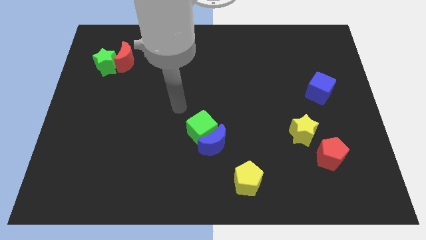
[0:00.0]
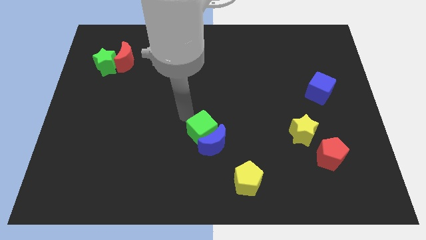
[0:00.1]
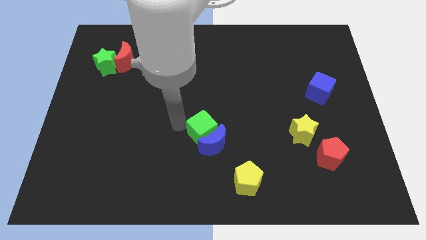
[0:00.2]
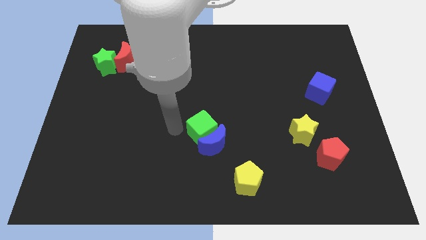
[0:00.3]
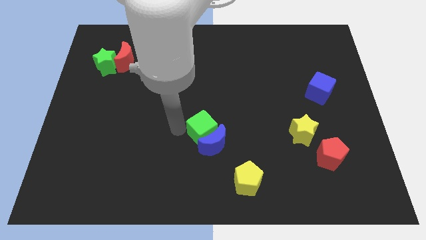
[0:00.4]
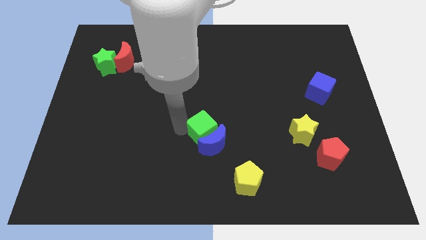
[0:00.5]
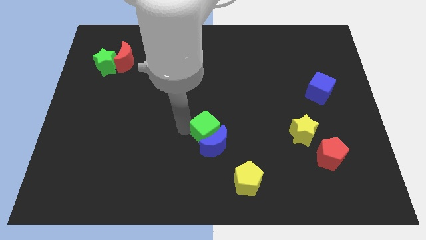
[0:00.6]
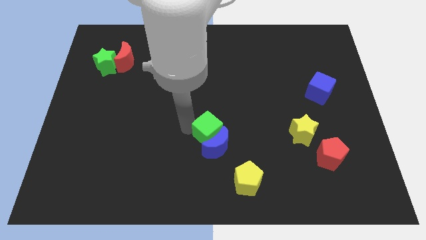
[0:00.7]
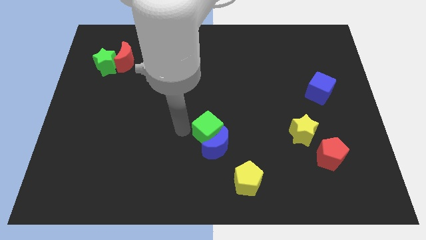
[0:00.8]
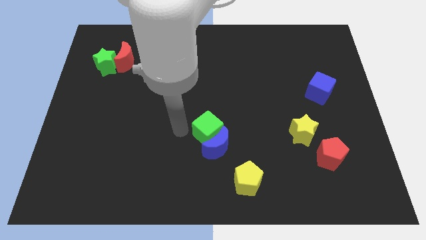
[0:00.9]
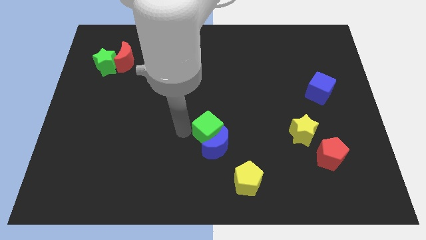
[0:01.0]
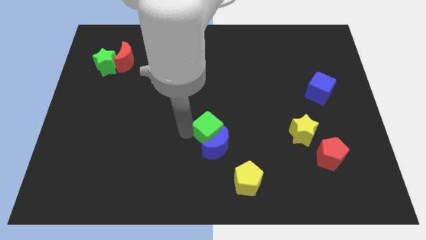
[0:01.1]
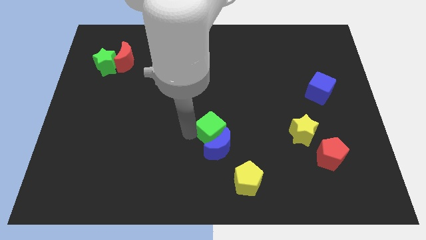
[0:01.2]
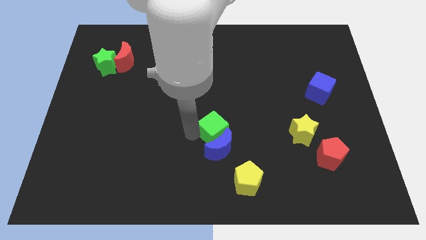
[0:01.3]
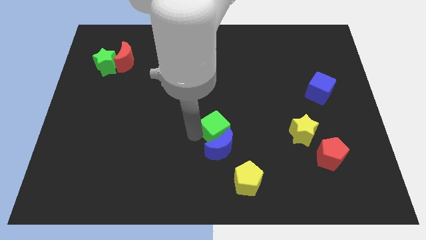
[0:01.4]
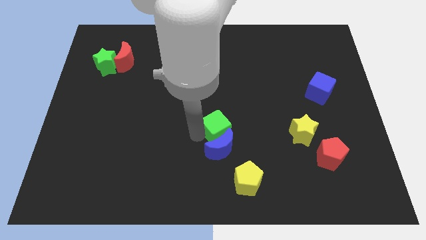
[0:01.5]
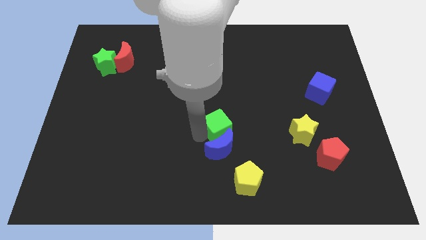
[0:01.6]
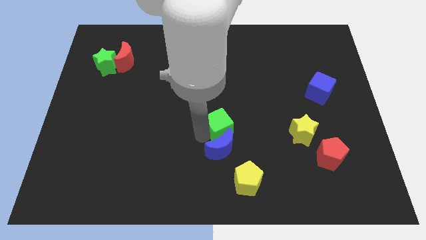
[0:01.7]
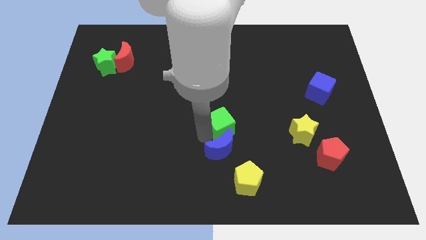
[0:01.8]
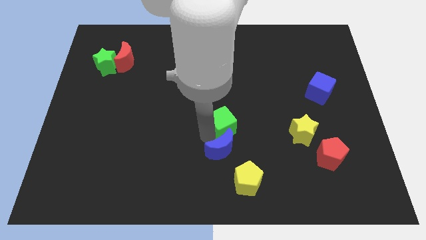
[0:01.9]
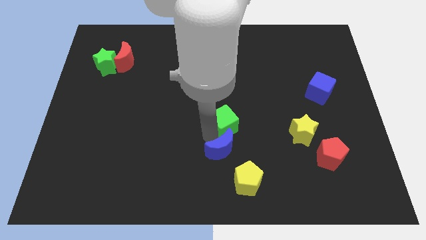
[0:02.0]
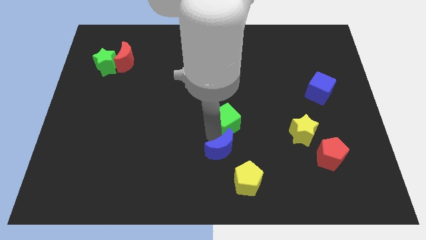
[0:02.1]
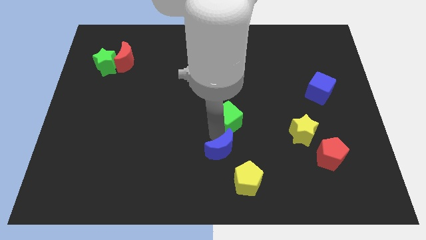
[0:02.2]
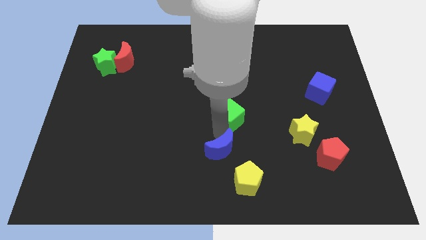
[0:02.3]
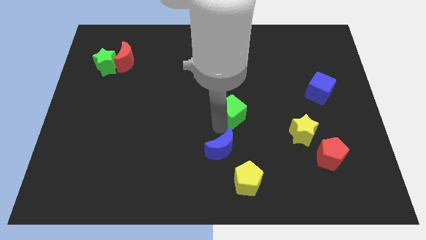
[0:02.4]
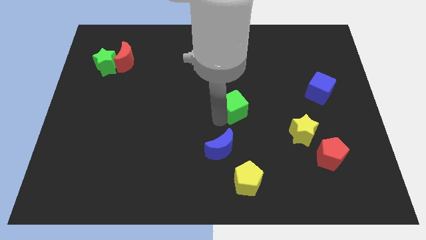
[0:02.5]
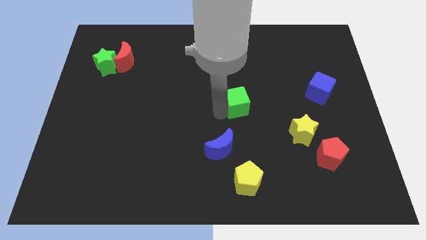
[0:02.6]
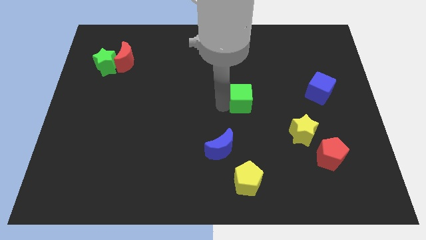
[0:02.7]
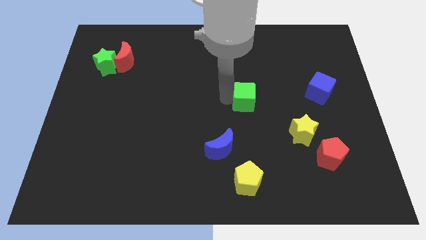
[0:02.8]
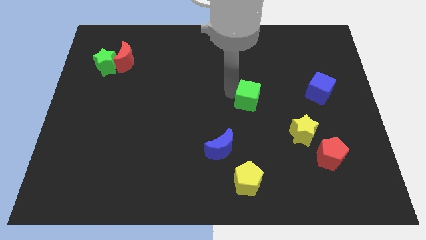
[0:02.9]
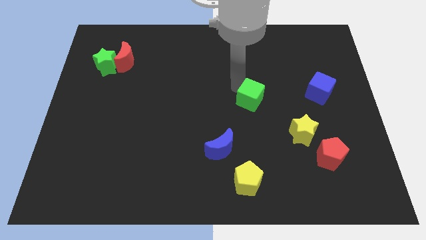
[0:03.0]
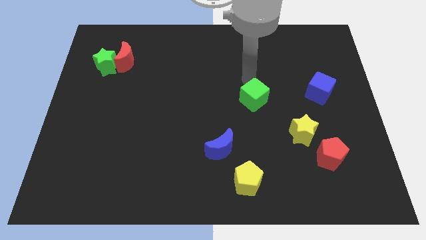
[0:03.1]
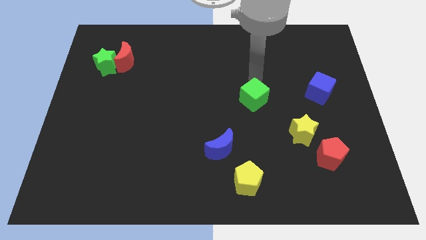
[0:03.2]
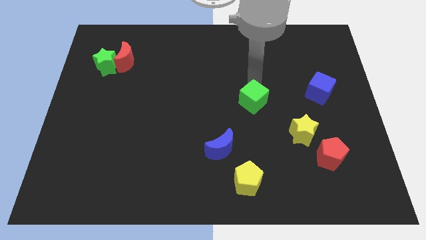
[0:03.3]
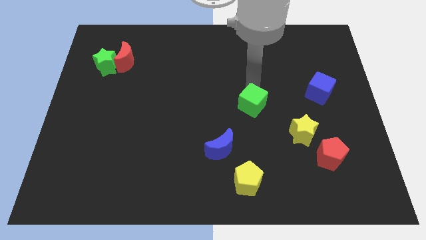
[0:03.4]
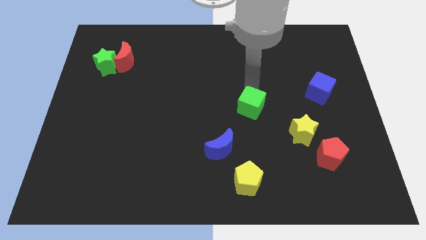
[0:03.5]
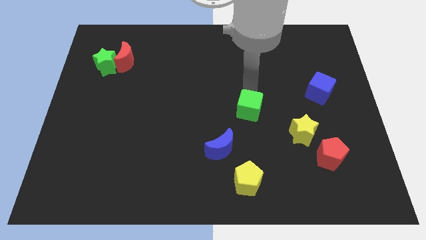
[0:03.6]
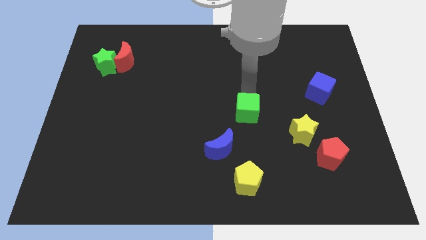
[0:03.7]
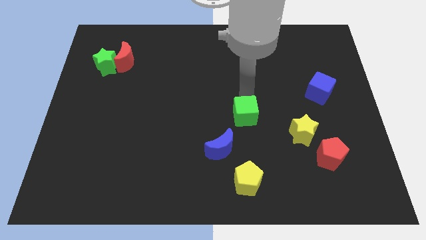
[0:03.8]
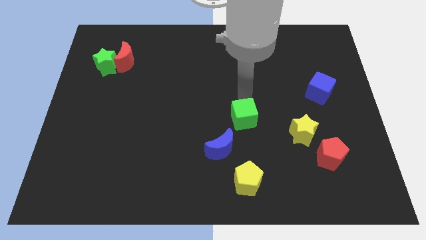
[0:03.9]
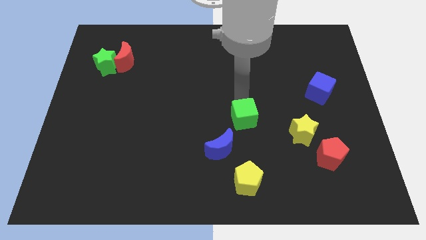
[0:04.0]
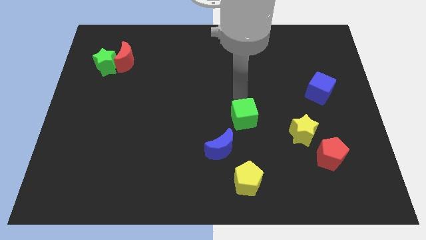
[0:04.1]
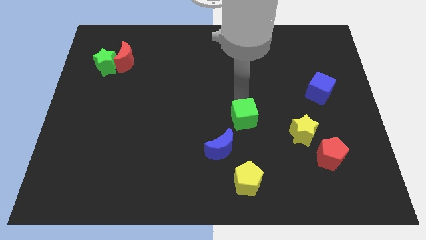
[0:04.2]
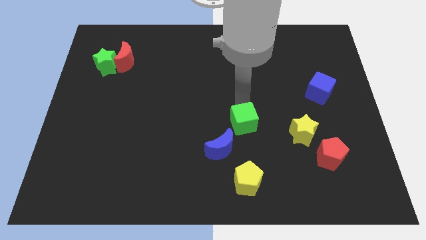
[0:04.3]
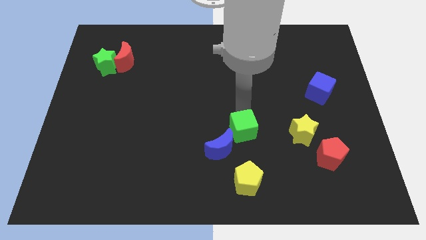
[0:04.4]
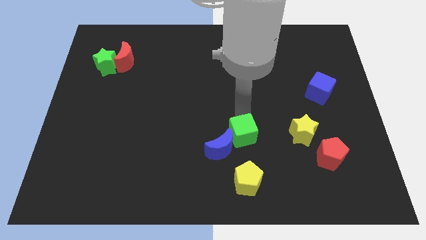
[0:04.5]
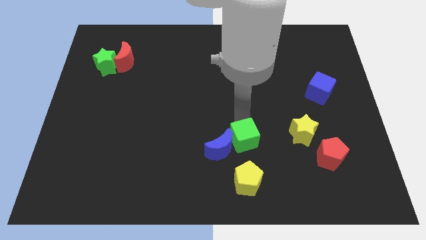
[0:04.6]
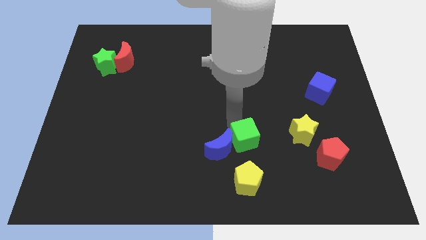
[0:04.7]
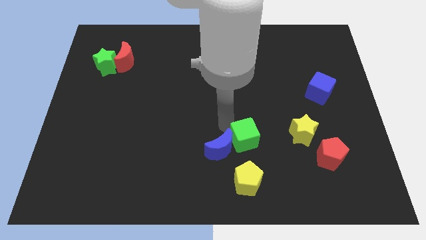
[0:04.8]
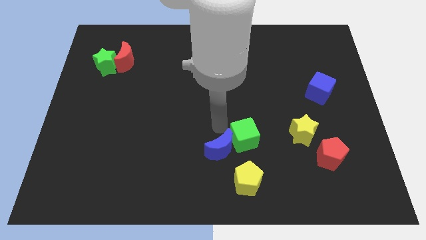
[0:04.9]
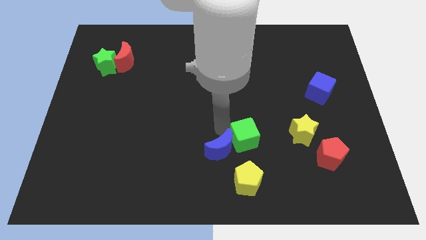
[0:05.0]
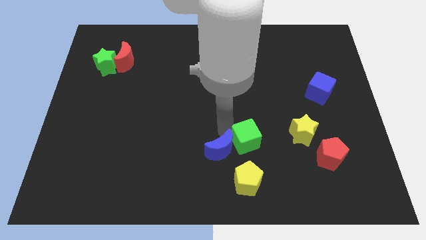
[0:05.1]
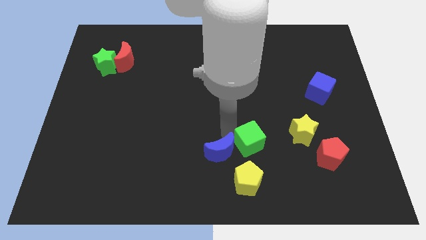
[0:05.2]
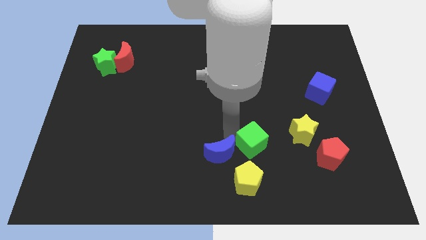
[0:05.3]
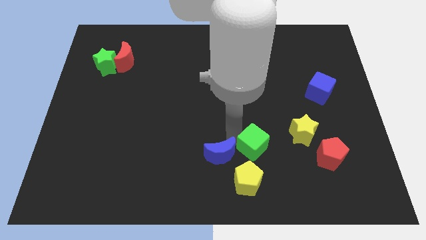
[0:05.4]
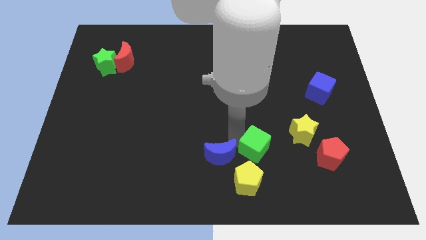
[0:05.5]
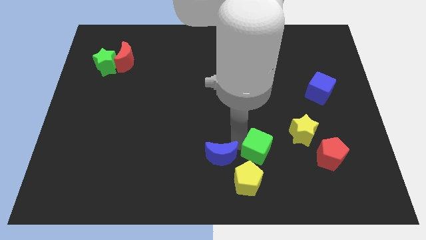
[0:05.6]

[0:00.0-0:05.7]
put the green cube to the bottom left of the yellow star

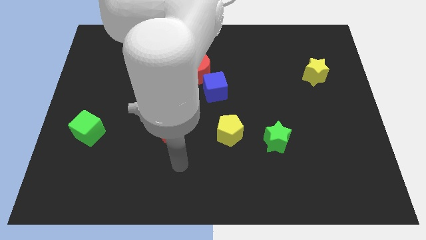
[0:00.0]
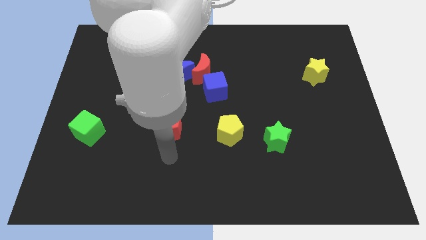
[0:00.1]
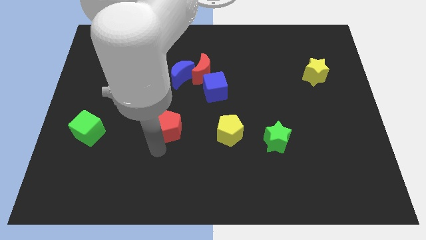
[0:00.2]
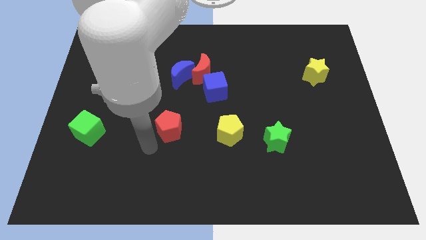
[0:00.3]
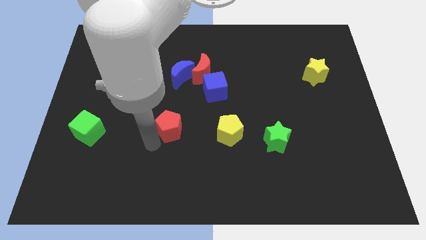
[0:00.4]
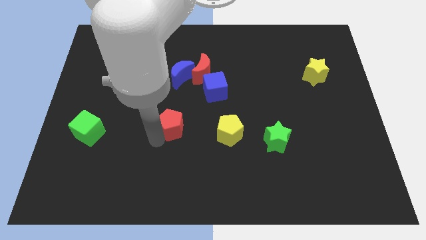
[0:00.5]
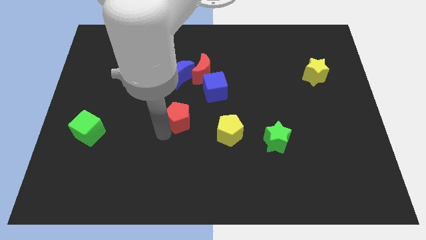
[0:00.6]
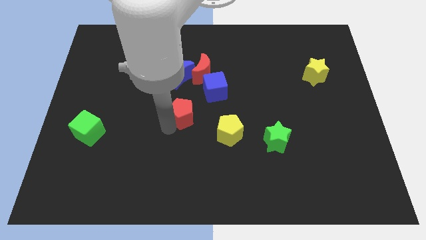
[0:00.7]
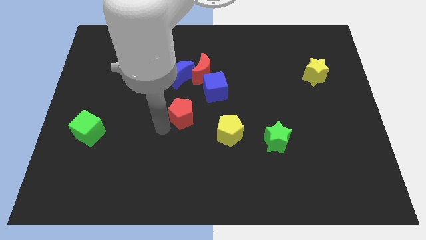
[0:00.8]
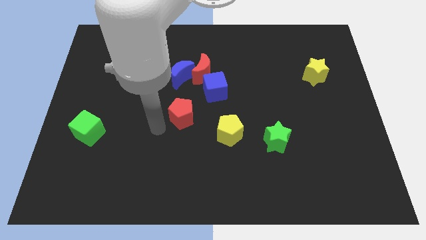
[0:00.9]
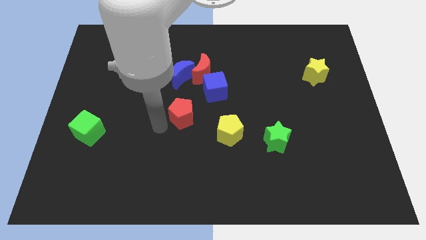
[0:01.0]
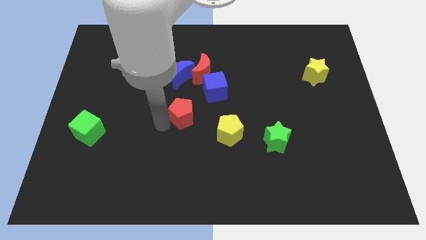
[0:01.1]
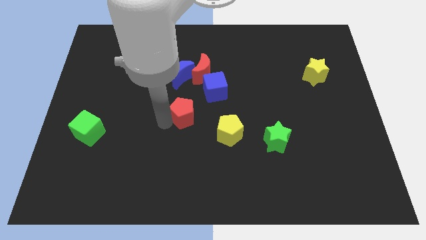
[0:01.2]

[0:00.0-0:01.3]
move the red pentagon below the red moon
